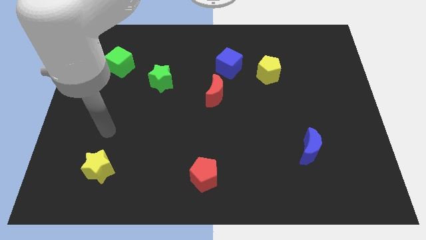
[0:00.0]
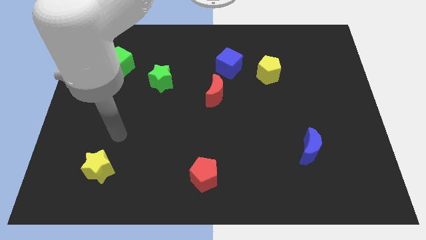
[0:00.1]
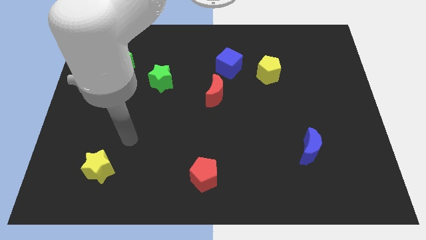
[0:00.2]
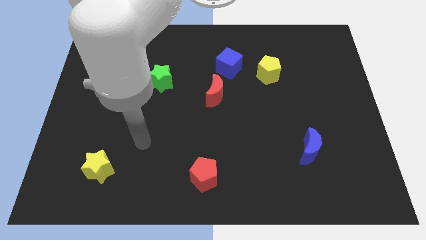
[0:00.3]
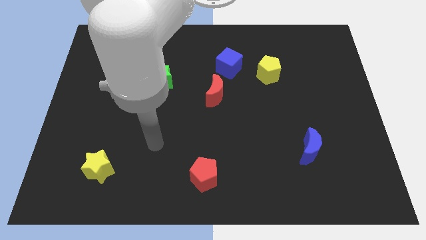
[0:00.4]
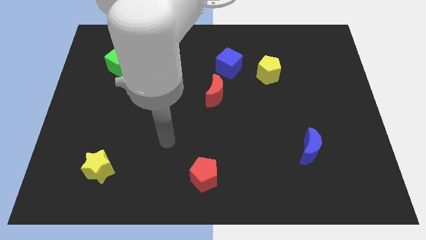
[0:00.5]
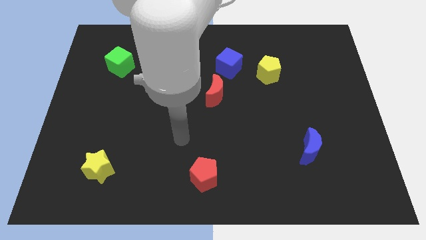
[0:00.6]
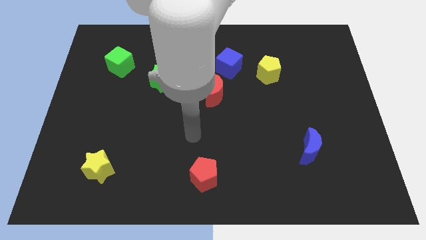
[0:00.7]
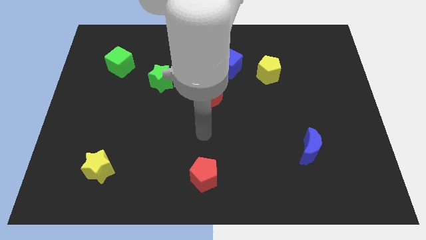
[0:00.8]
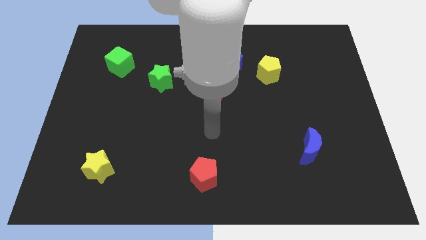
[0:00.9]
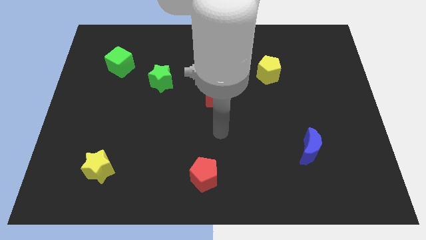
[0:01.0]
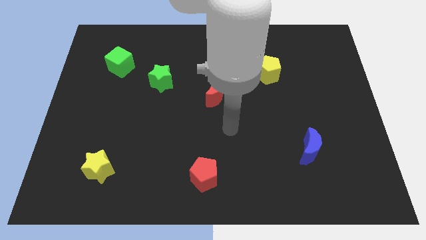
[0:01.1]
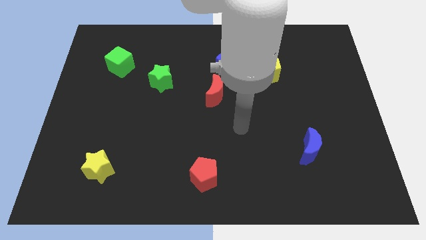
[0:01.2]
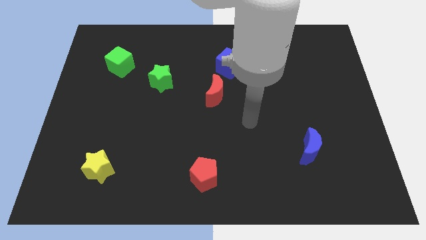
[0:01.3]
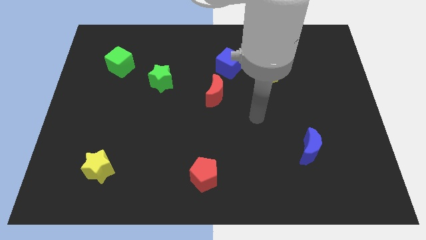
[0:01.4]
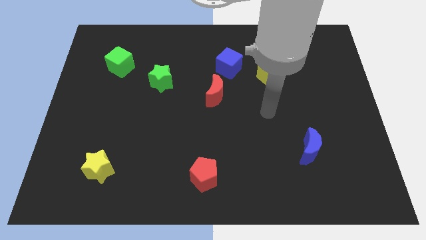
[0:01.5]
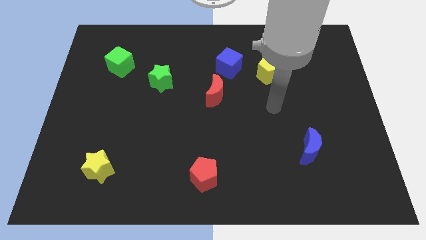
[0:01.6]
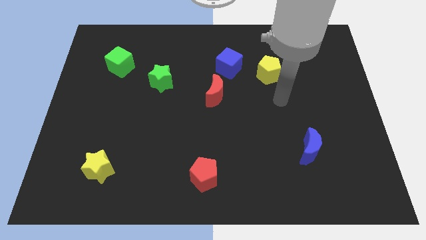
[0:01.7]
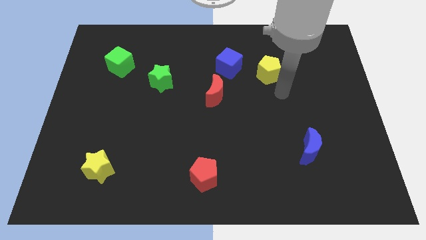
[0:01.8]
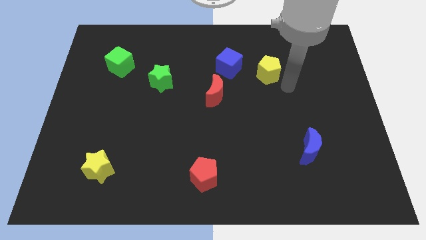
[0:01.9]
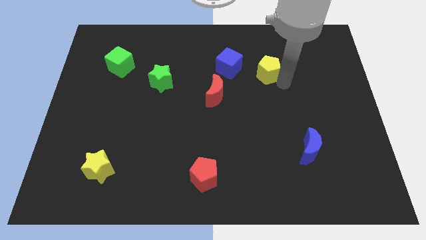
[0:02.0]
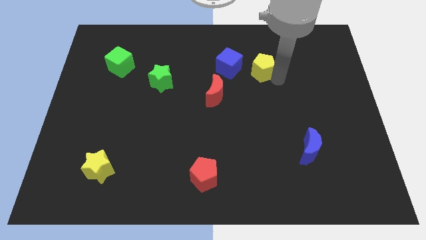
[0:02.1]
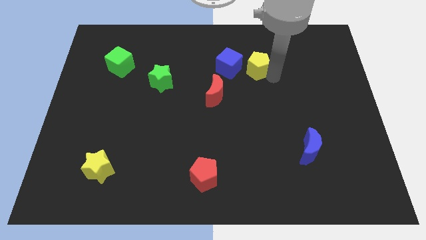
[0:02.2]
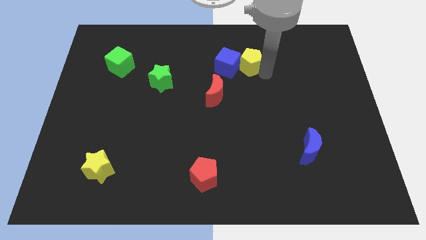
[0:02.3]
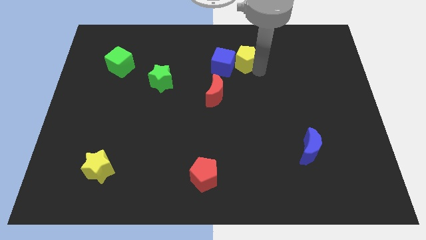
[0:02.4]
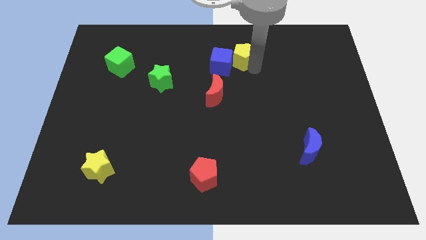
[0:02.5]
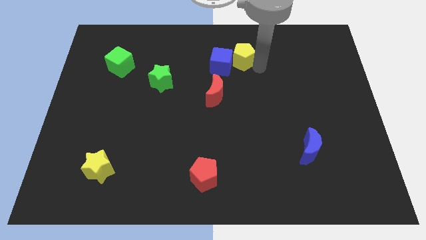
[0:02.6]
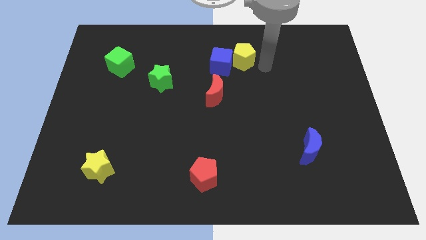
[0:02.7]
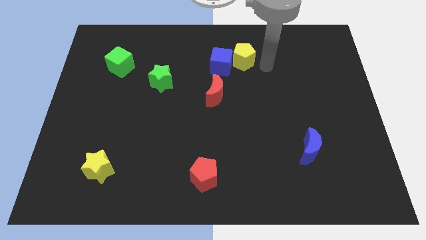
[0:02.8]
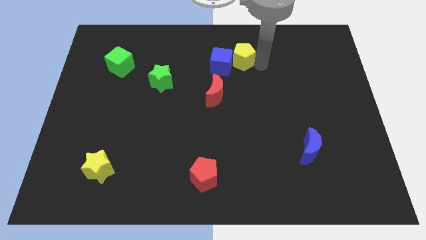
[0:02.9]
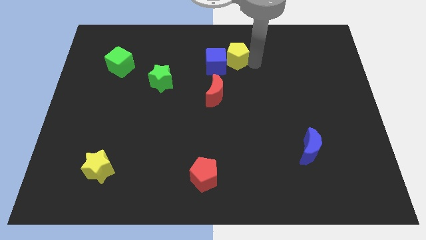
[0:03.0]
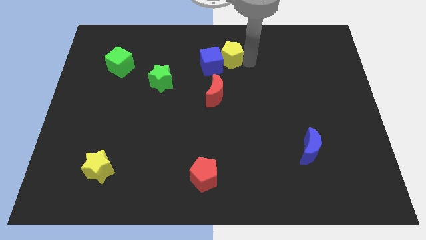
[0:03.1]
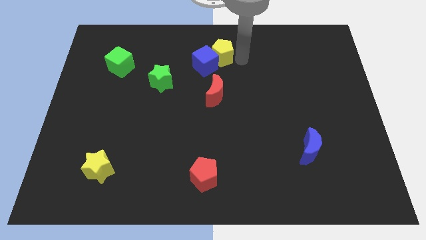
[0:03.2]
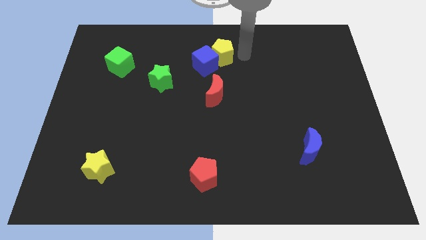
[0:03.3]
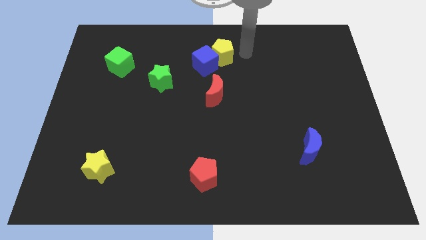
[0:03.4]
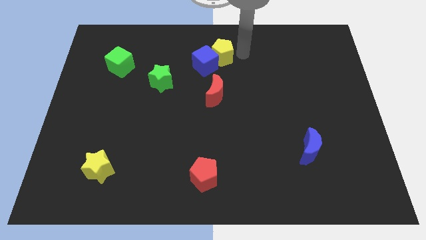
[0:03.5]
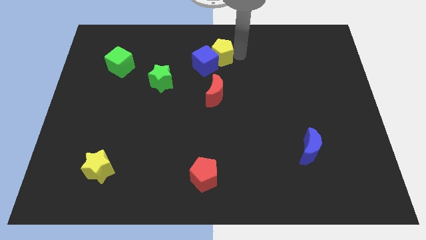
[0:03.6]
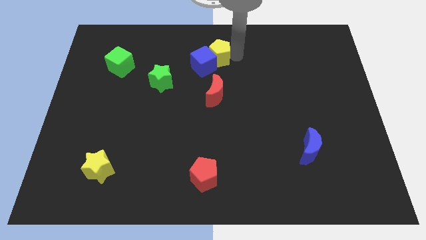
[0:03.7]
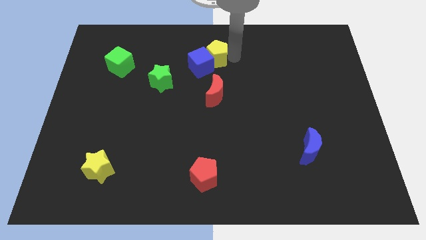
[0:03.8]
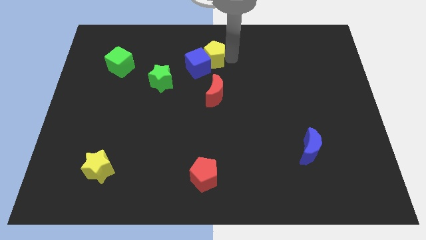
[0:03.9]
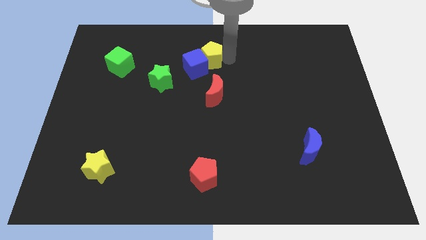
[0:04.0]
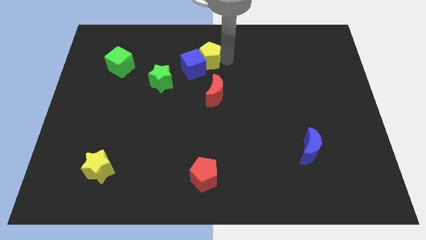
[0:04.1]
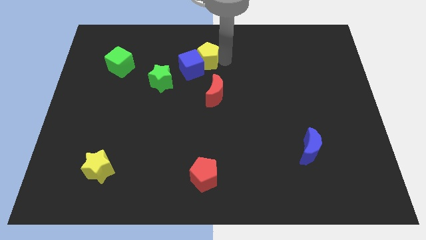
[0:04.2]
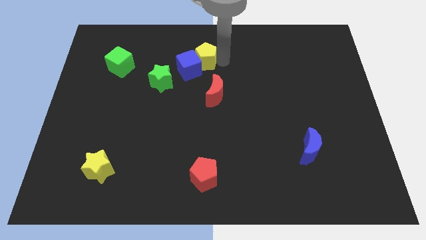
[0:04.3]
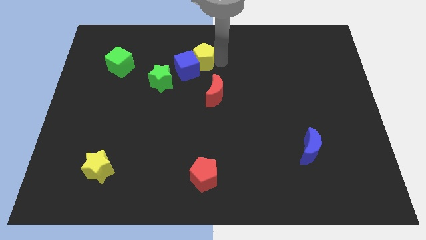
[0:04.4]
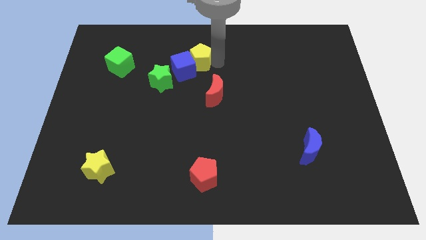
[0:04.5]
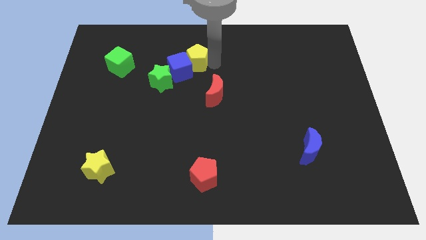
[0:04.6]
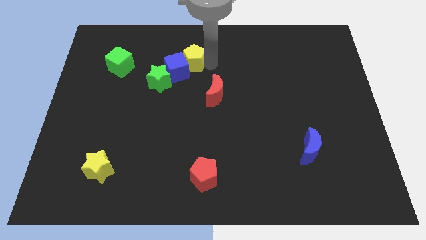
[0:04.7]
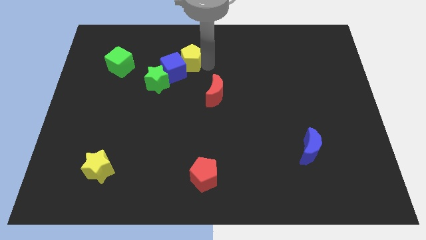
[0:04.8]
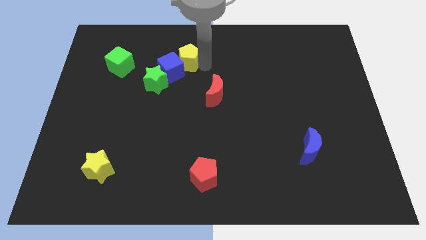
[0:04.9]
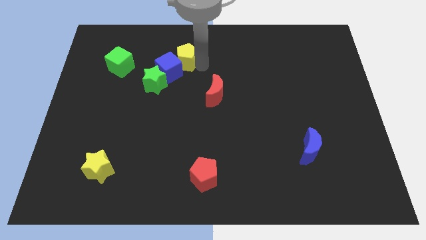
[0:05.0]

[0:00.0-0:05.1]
push the yellow pentagon to the left

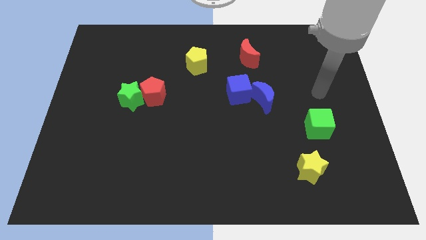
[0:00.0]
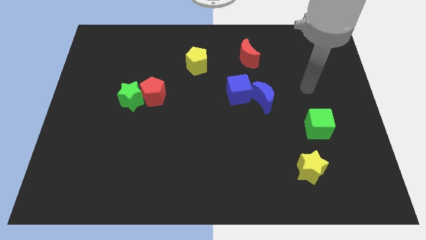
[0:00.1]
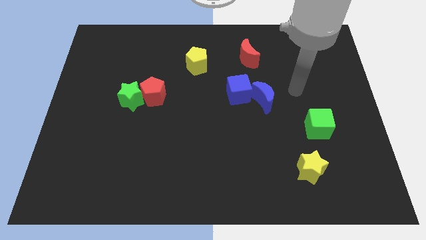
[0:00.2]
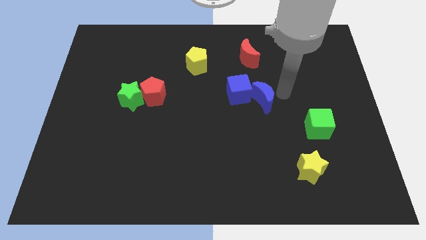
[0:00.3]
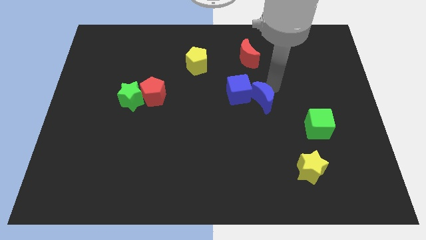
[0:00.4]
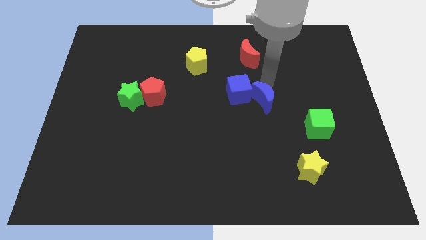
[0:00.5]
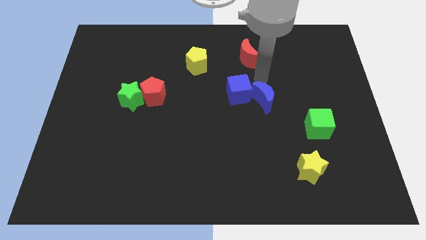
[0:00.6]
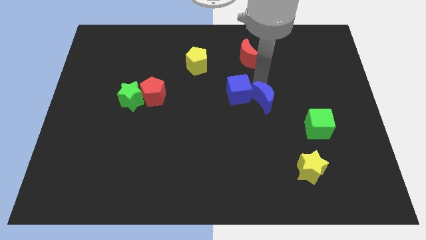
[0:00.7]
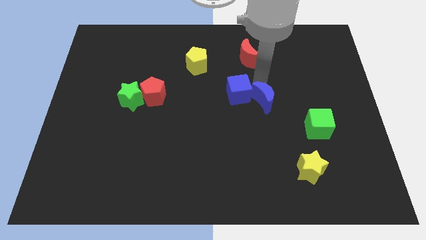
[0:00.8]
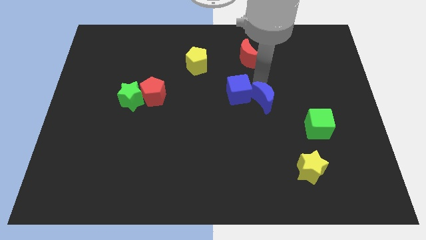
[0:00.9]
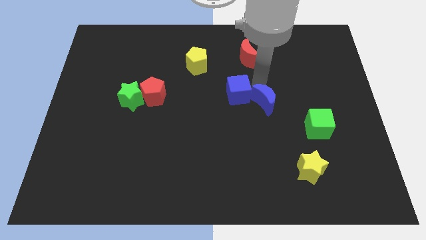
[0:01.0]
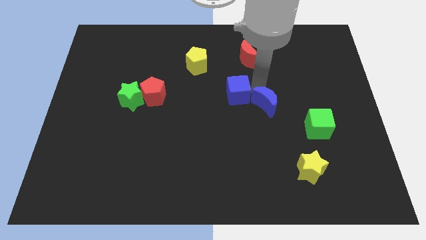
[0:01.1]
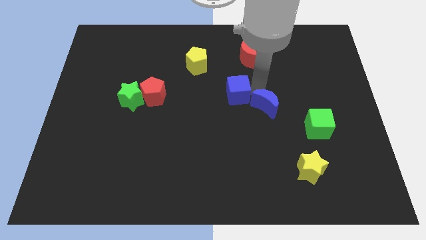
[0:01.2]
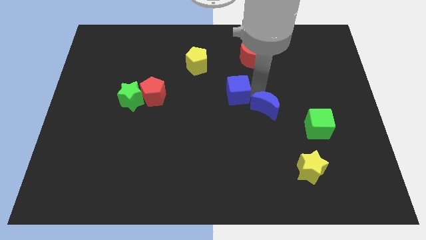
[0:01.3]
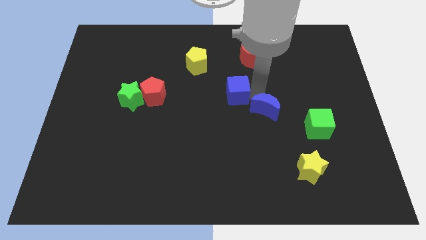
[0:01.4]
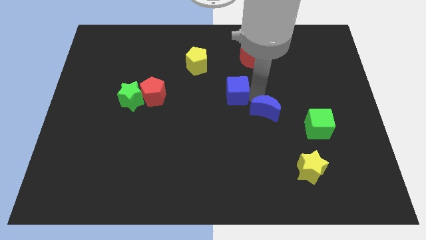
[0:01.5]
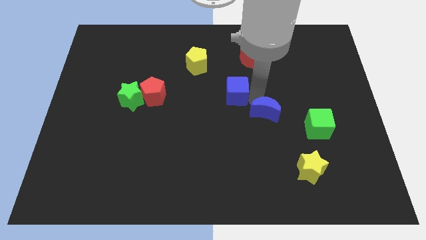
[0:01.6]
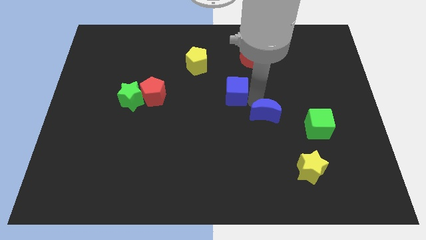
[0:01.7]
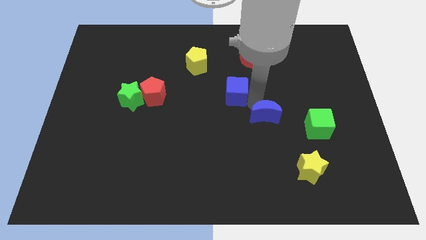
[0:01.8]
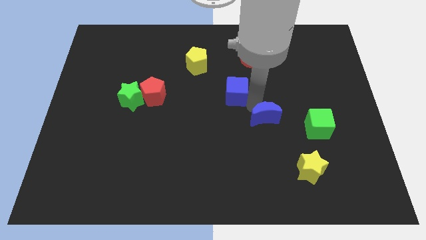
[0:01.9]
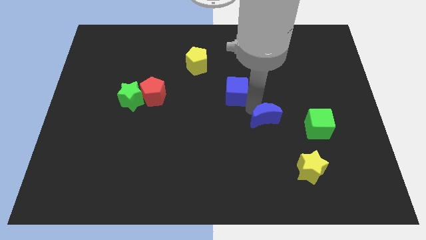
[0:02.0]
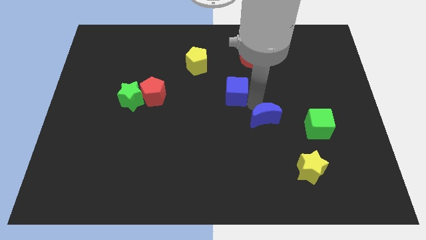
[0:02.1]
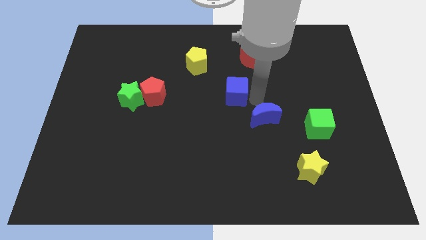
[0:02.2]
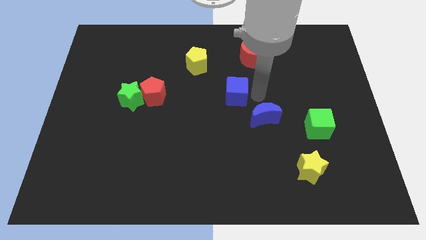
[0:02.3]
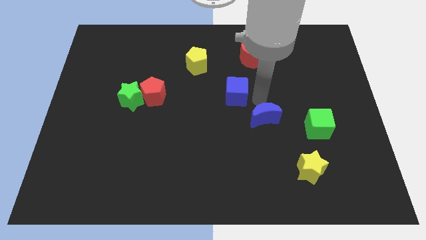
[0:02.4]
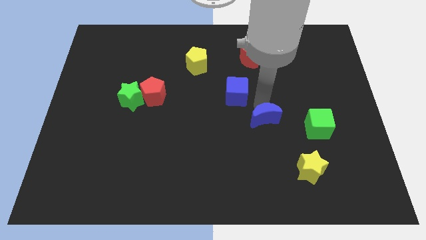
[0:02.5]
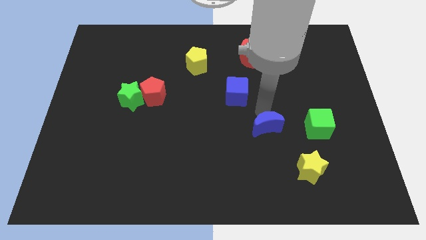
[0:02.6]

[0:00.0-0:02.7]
slightly move the blue moon downwards

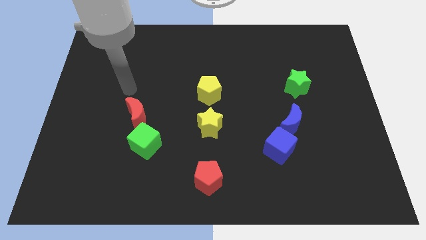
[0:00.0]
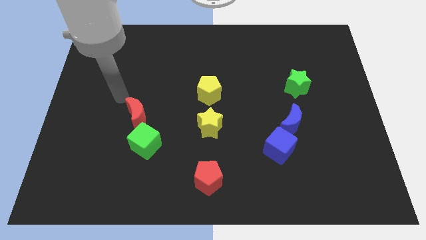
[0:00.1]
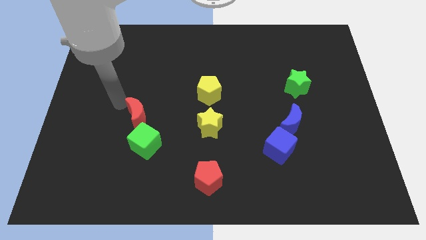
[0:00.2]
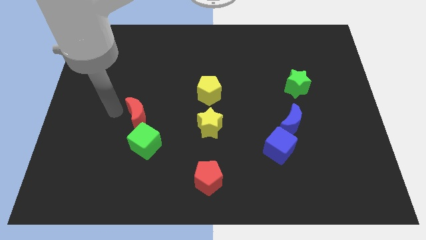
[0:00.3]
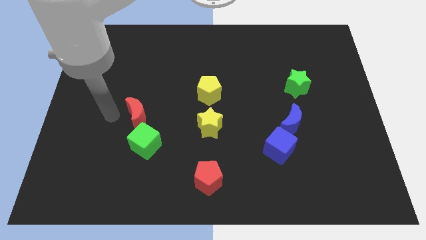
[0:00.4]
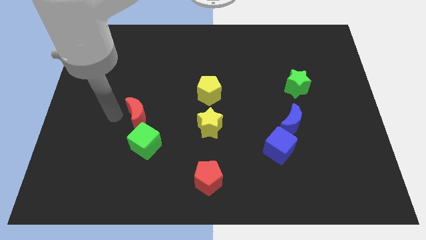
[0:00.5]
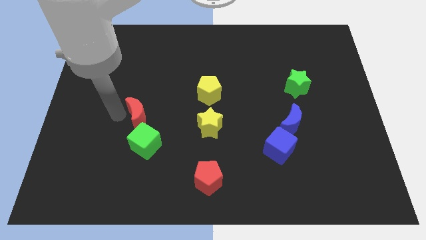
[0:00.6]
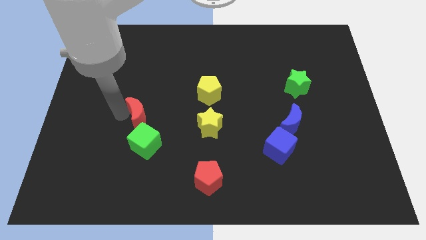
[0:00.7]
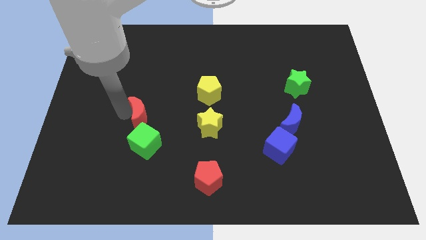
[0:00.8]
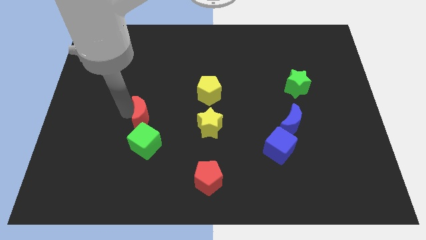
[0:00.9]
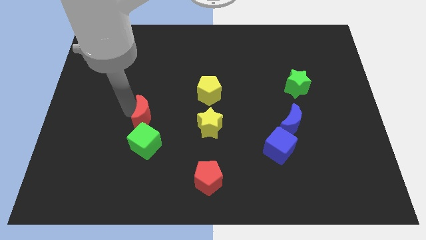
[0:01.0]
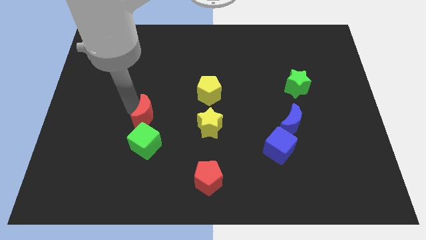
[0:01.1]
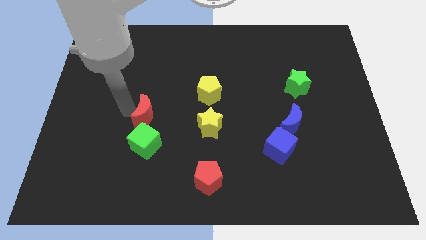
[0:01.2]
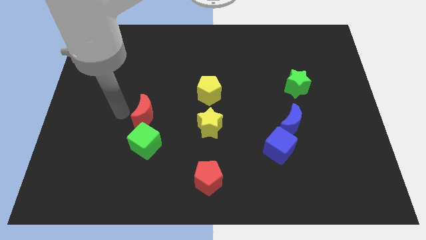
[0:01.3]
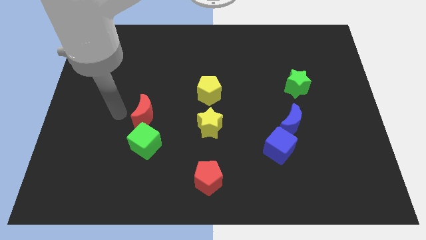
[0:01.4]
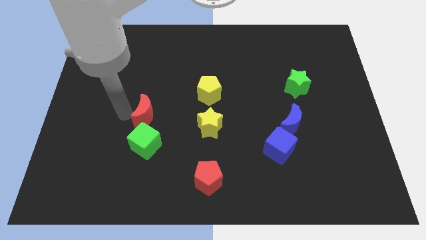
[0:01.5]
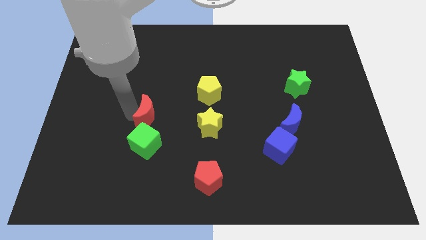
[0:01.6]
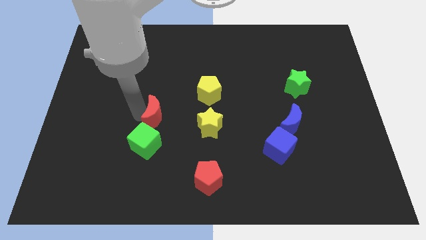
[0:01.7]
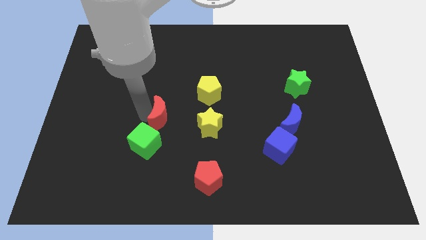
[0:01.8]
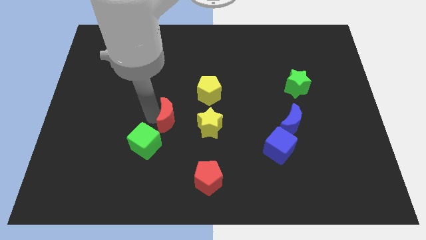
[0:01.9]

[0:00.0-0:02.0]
slightly push the red moon right
